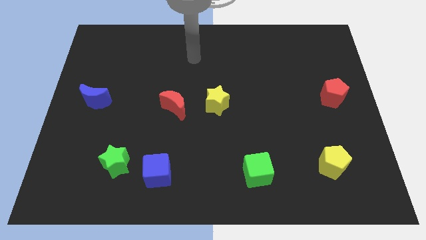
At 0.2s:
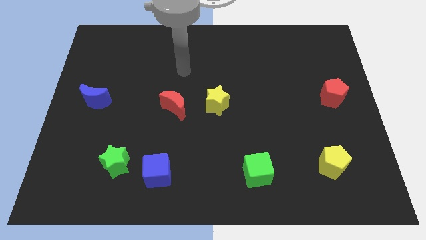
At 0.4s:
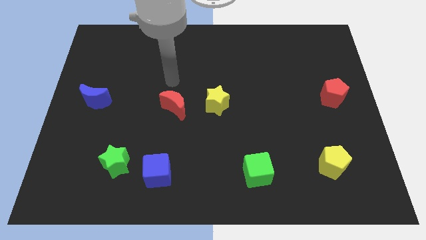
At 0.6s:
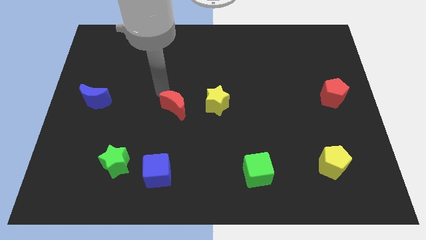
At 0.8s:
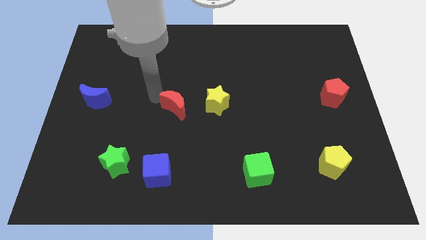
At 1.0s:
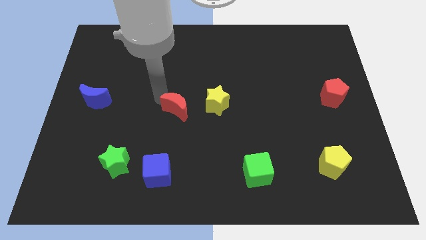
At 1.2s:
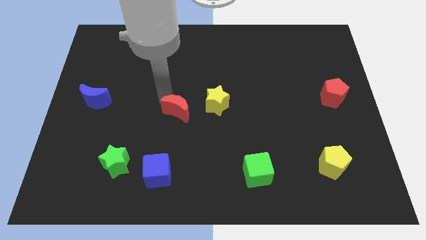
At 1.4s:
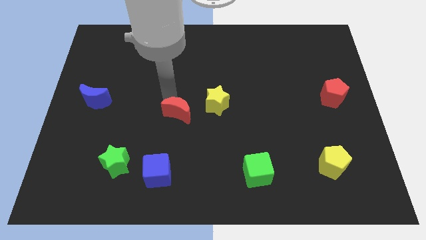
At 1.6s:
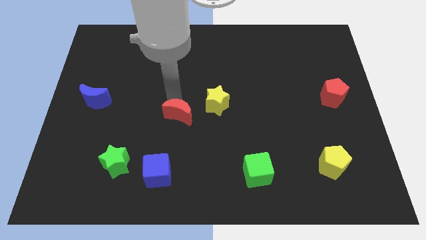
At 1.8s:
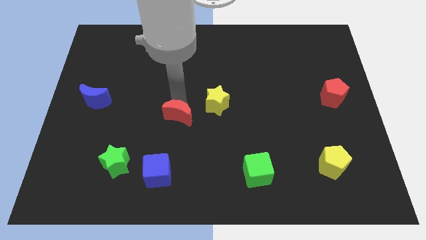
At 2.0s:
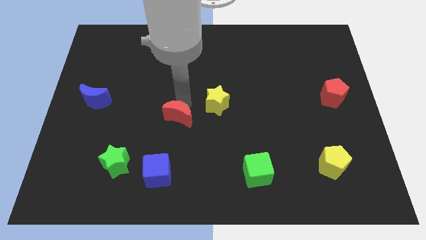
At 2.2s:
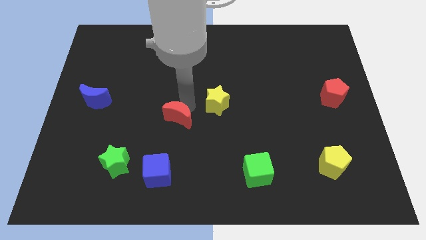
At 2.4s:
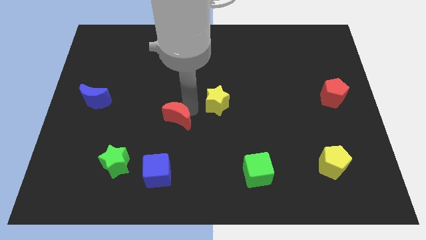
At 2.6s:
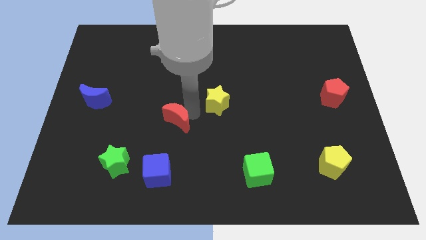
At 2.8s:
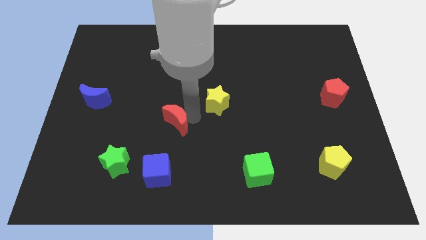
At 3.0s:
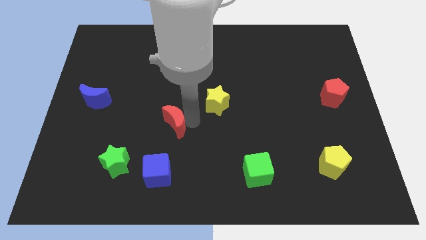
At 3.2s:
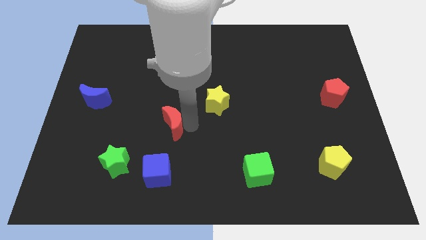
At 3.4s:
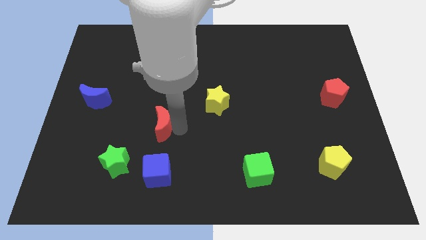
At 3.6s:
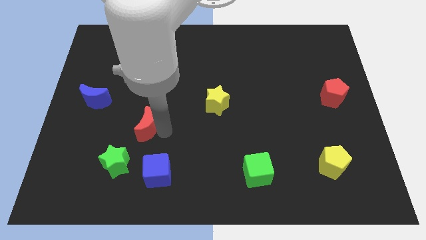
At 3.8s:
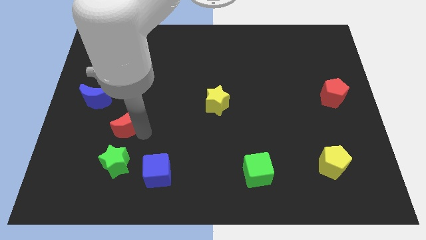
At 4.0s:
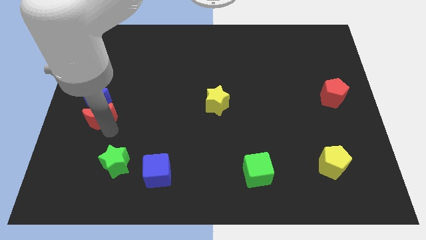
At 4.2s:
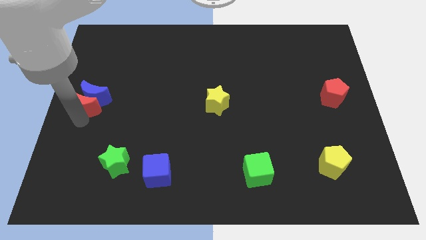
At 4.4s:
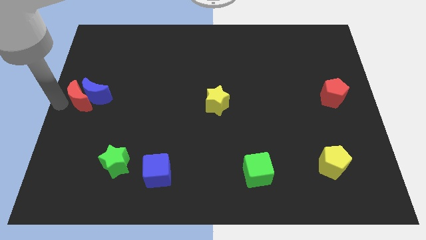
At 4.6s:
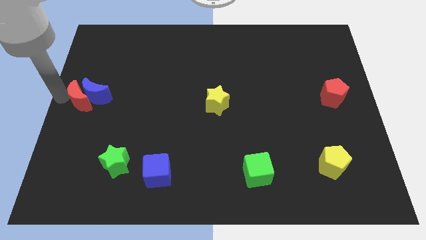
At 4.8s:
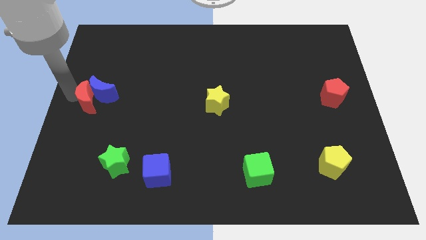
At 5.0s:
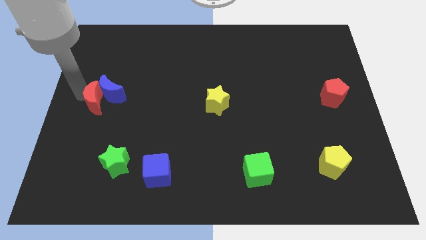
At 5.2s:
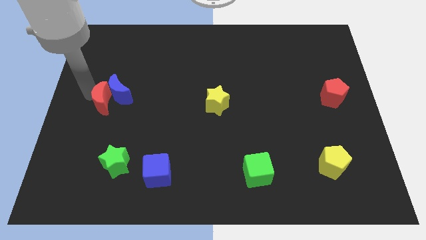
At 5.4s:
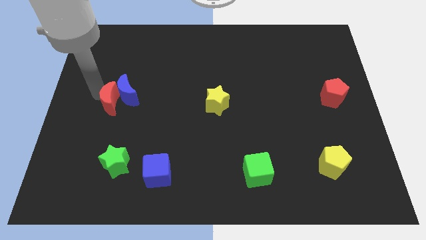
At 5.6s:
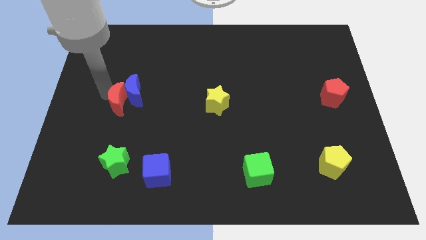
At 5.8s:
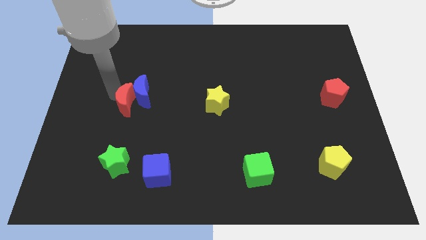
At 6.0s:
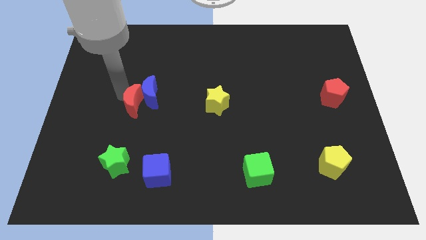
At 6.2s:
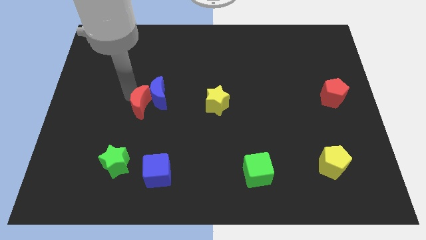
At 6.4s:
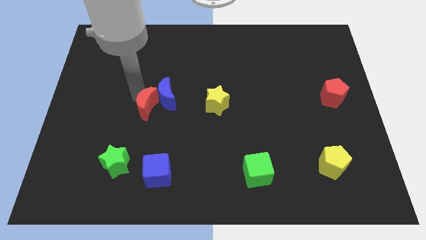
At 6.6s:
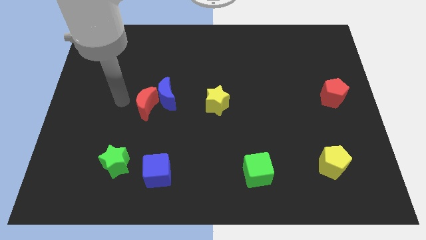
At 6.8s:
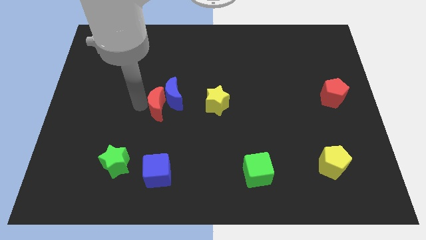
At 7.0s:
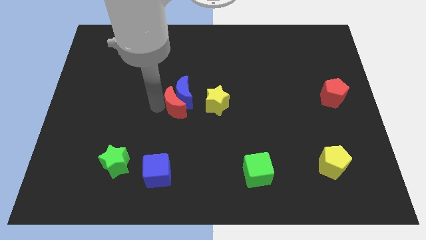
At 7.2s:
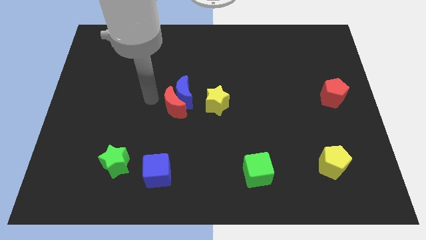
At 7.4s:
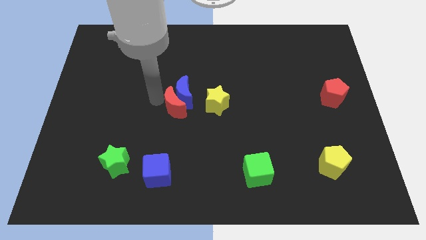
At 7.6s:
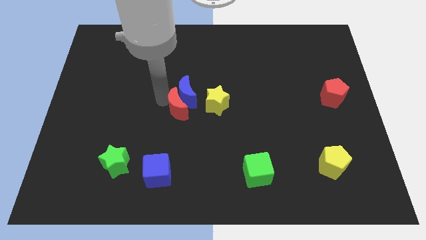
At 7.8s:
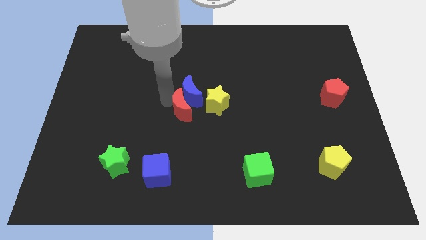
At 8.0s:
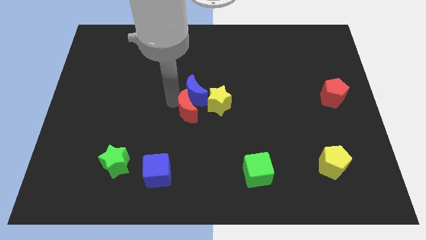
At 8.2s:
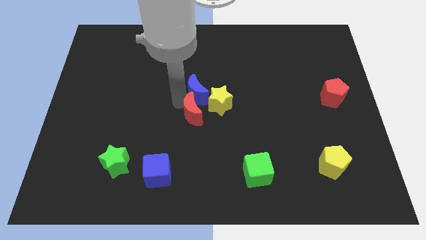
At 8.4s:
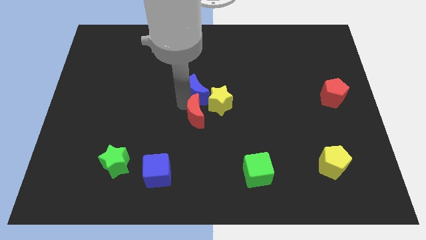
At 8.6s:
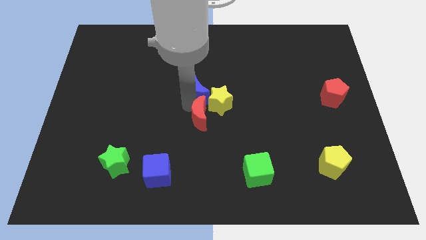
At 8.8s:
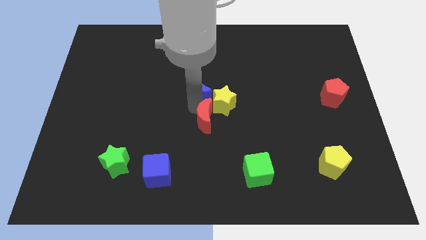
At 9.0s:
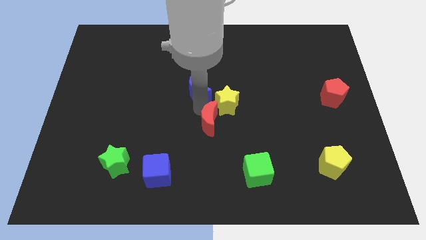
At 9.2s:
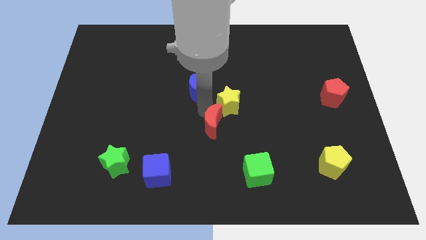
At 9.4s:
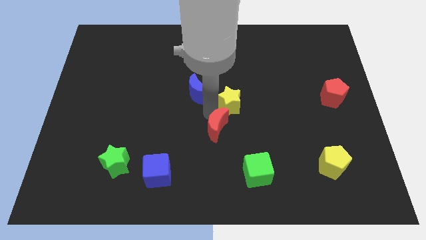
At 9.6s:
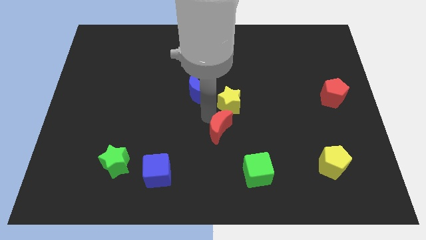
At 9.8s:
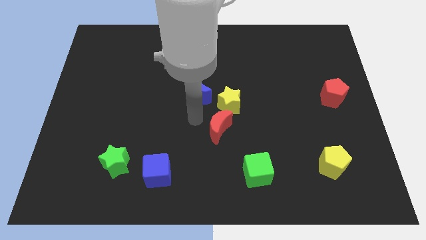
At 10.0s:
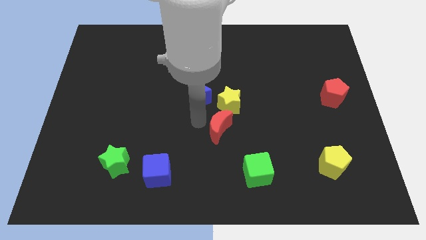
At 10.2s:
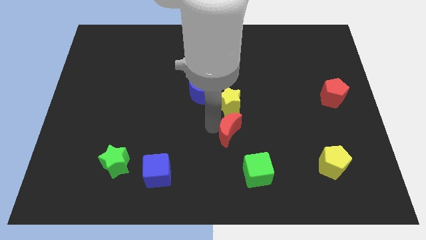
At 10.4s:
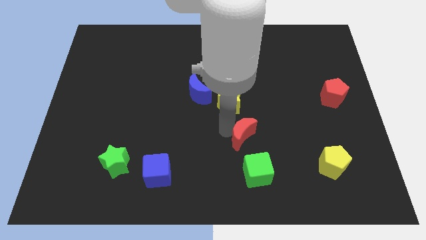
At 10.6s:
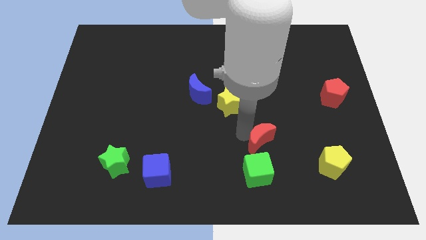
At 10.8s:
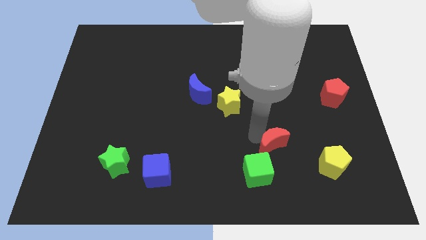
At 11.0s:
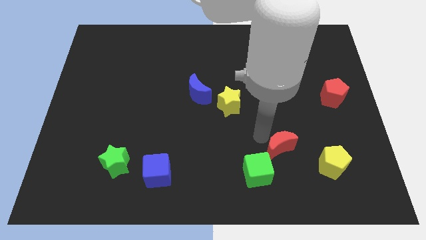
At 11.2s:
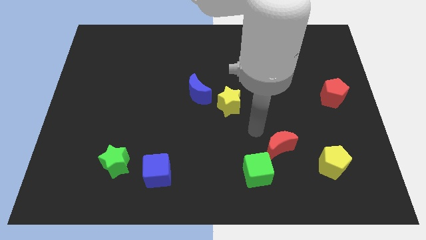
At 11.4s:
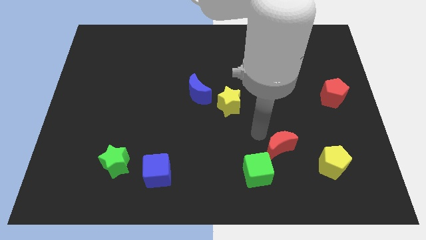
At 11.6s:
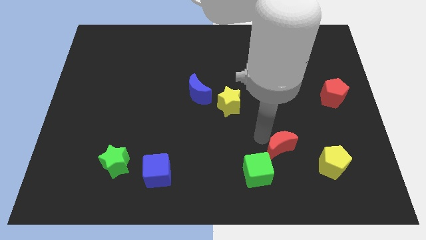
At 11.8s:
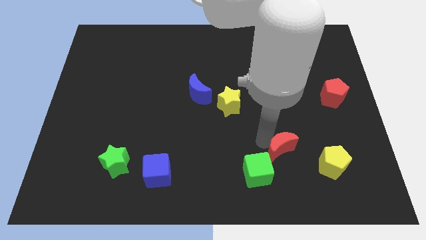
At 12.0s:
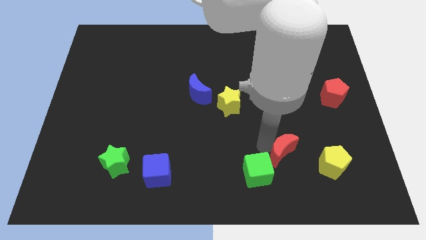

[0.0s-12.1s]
slide the red moon to the right side of the green cube

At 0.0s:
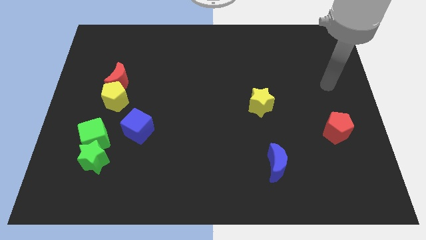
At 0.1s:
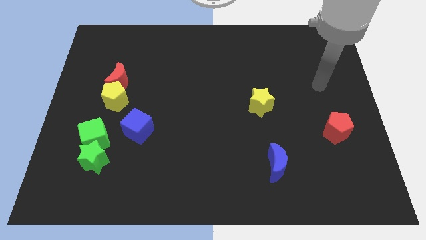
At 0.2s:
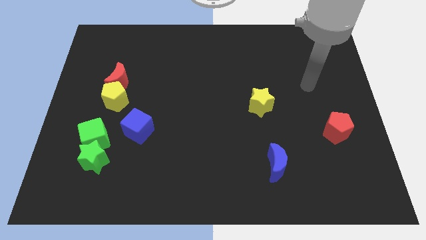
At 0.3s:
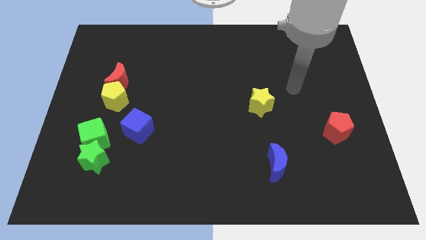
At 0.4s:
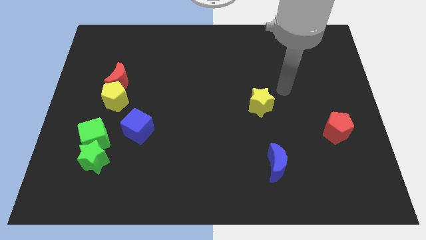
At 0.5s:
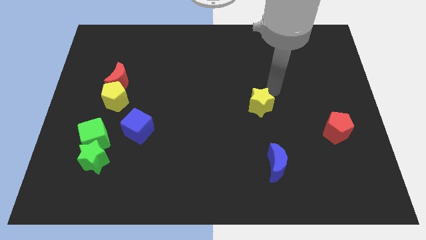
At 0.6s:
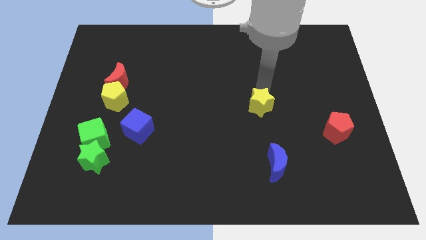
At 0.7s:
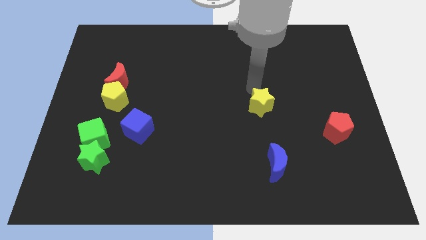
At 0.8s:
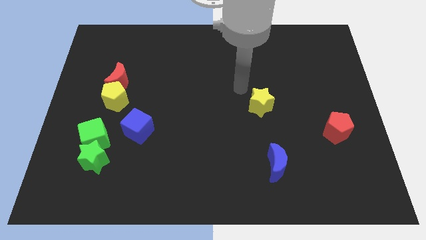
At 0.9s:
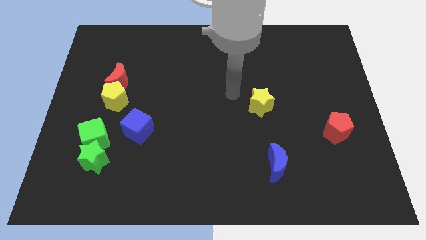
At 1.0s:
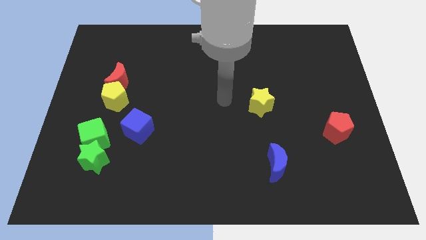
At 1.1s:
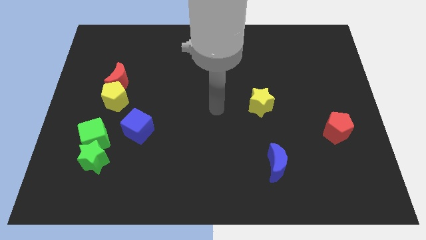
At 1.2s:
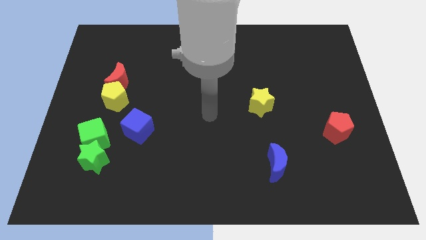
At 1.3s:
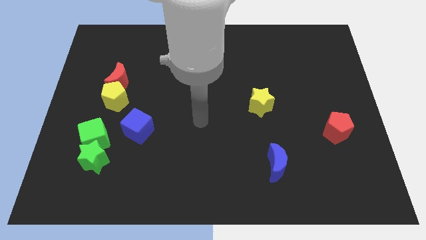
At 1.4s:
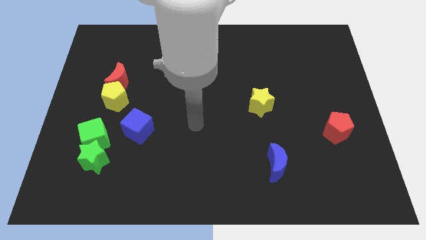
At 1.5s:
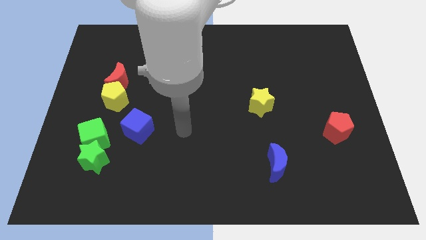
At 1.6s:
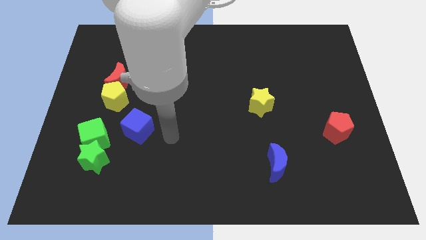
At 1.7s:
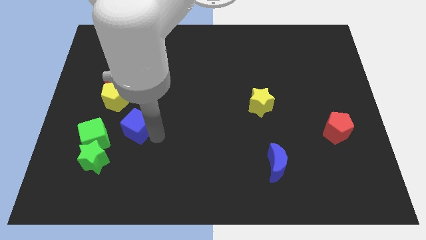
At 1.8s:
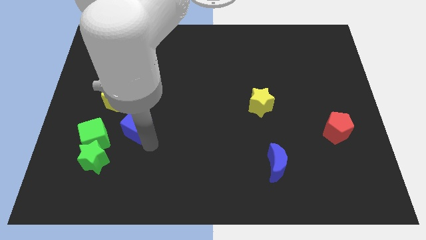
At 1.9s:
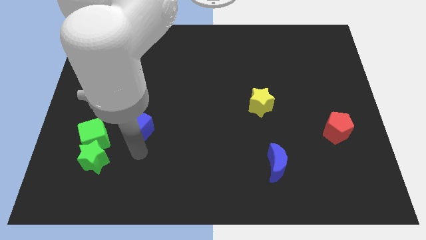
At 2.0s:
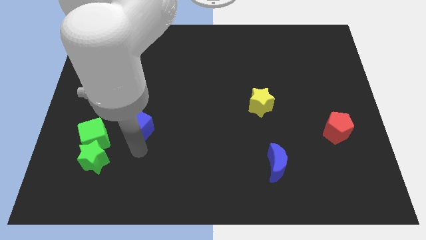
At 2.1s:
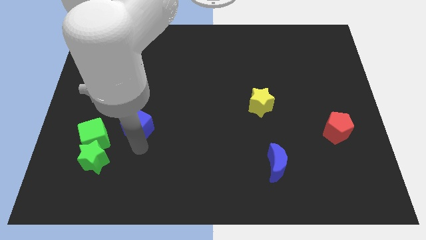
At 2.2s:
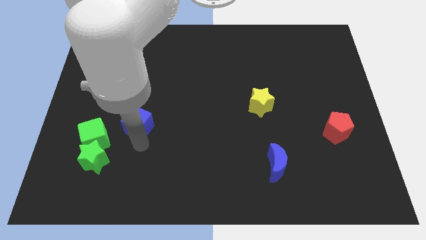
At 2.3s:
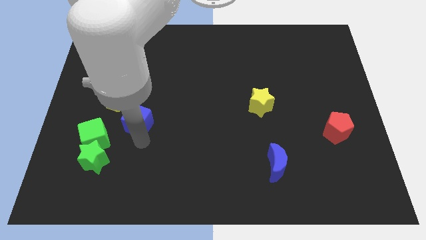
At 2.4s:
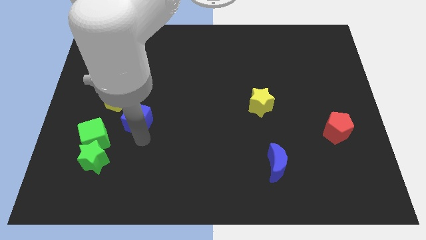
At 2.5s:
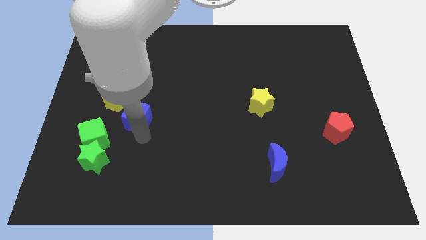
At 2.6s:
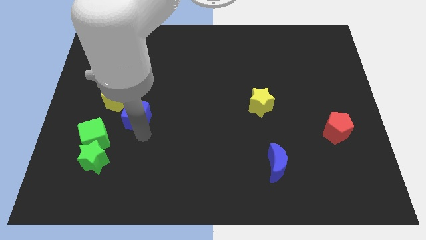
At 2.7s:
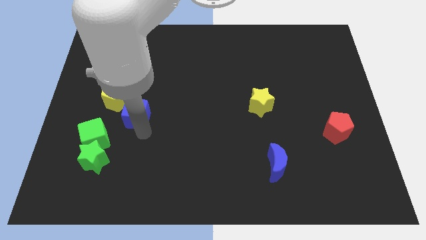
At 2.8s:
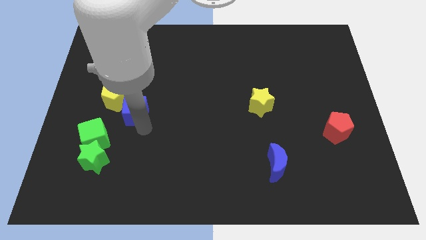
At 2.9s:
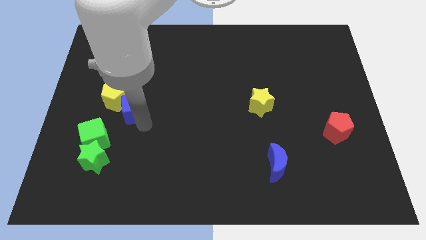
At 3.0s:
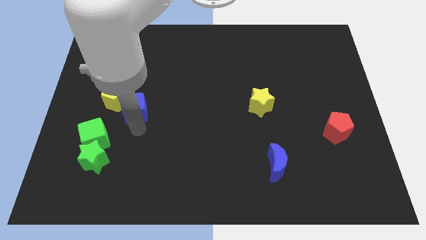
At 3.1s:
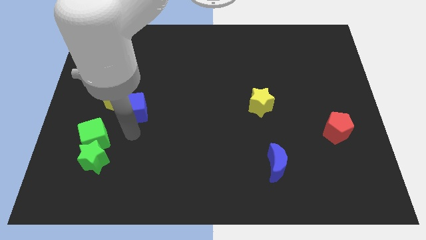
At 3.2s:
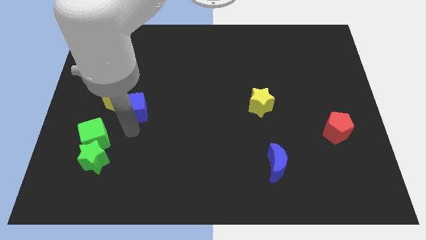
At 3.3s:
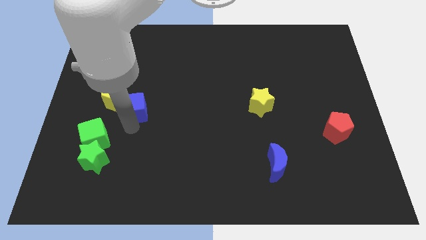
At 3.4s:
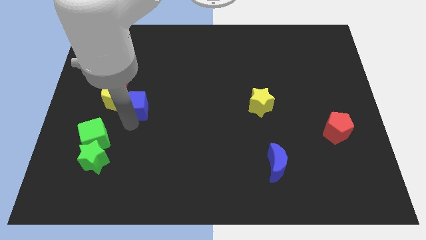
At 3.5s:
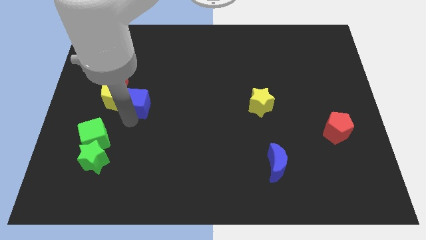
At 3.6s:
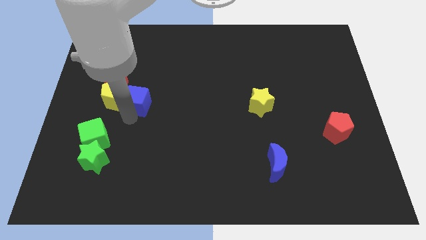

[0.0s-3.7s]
slide the blue cube diagonally up and to the right of the yellow pentagon
